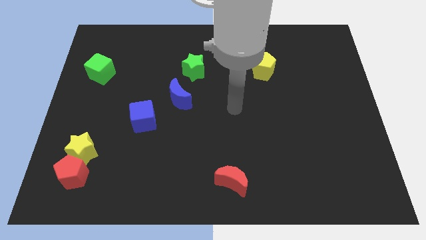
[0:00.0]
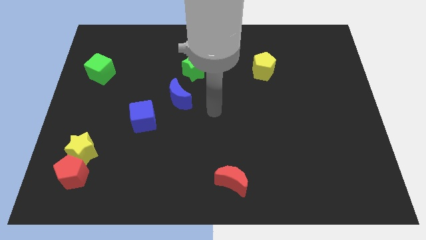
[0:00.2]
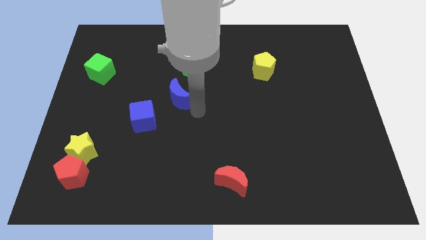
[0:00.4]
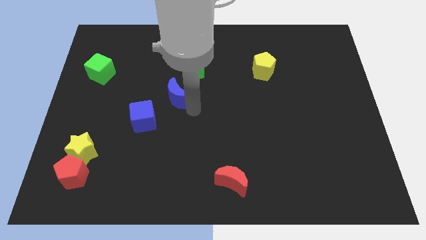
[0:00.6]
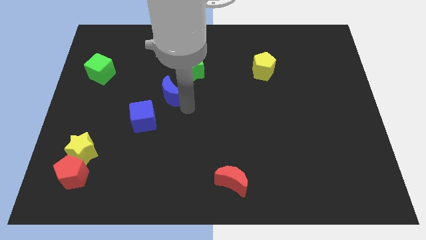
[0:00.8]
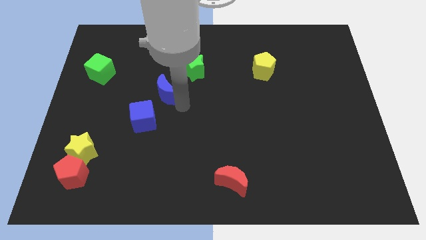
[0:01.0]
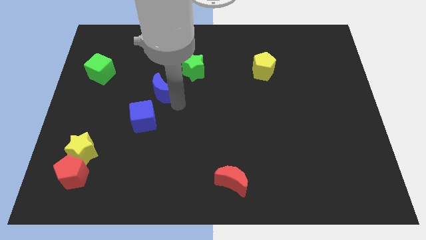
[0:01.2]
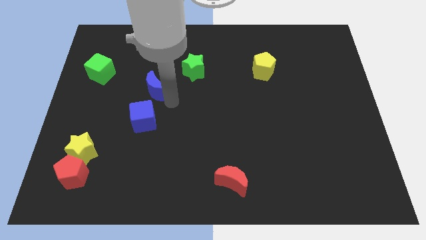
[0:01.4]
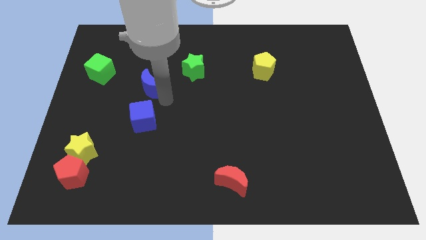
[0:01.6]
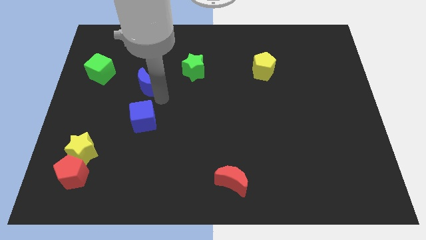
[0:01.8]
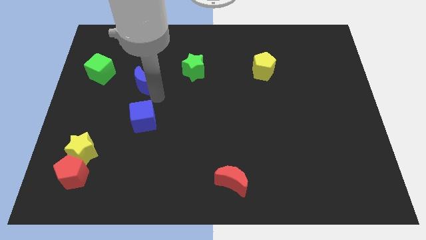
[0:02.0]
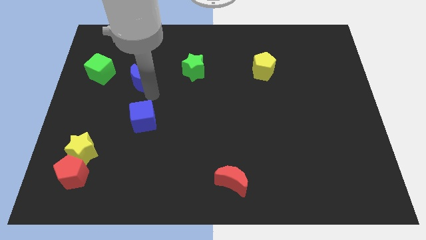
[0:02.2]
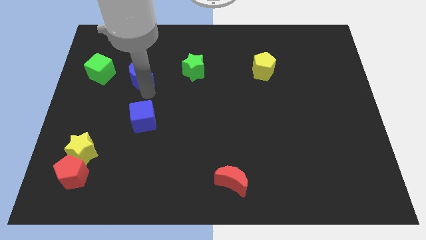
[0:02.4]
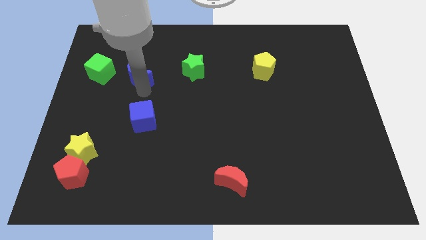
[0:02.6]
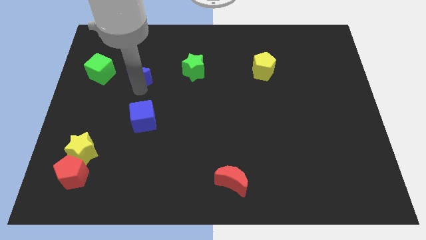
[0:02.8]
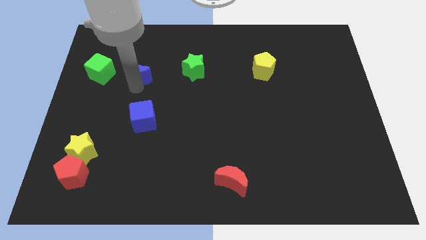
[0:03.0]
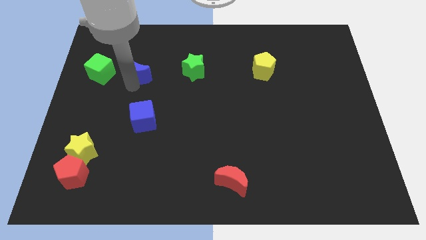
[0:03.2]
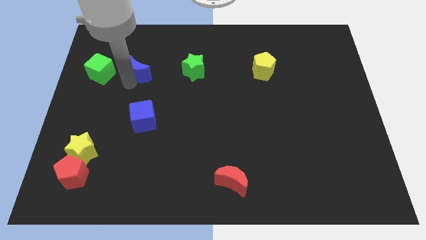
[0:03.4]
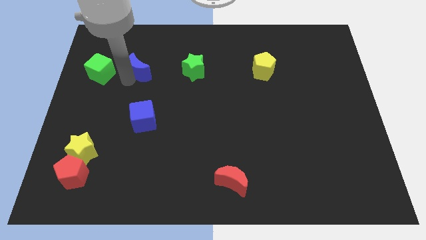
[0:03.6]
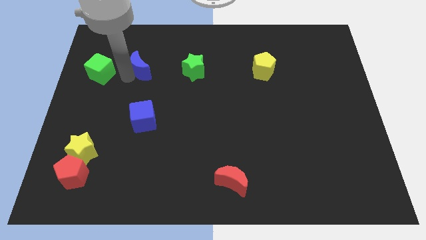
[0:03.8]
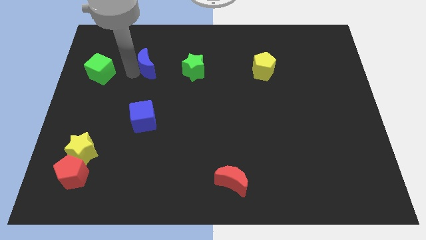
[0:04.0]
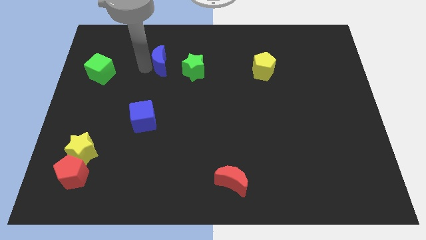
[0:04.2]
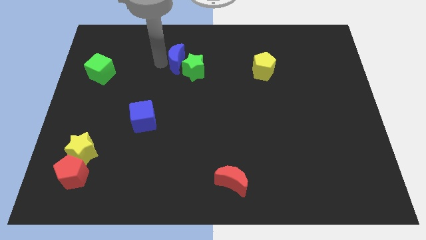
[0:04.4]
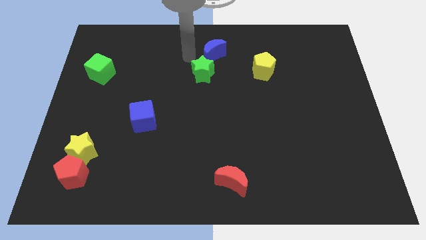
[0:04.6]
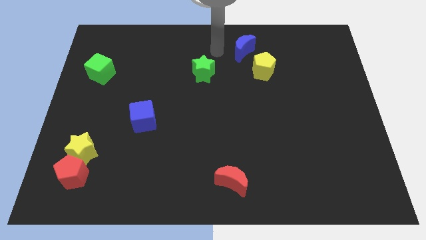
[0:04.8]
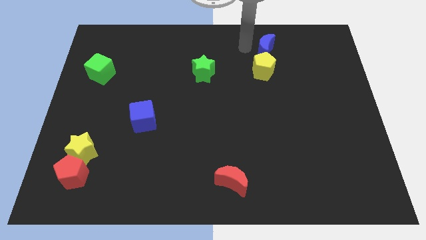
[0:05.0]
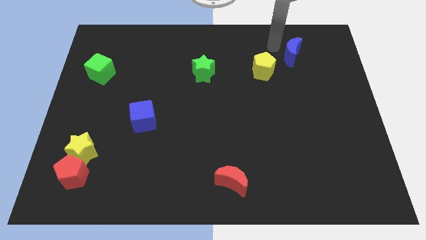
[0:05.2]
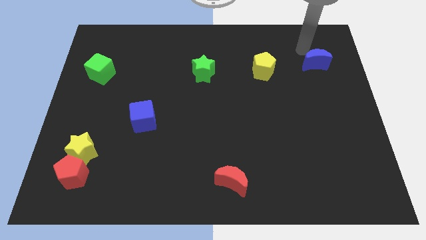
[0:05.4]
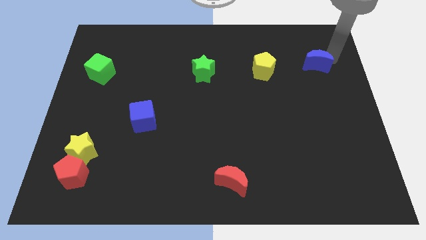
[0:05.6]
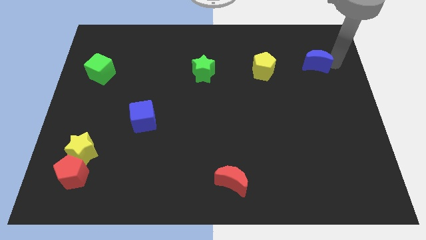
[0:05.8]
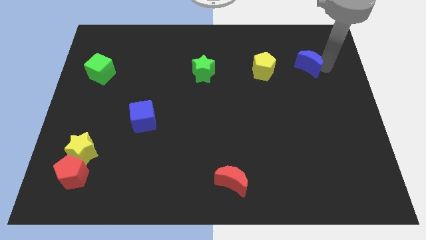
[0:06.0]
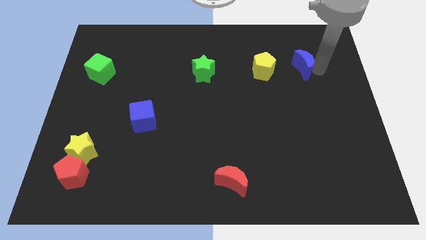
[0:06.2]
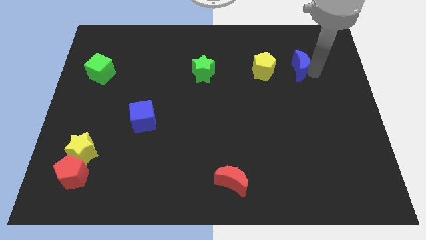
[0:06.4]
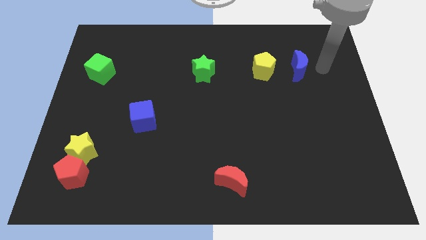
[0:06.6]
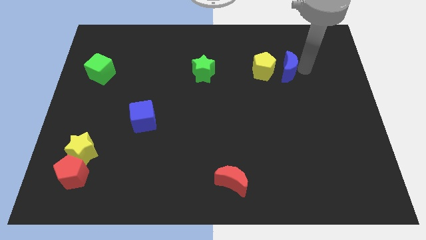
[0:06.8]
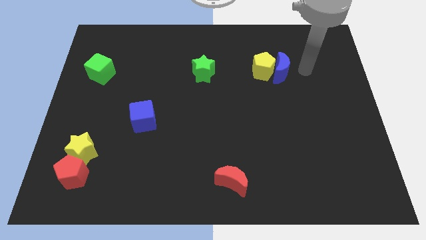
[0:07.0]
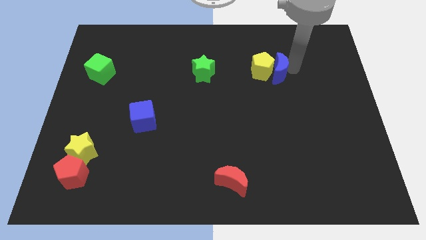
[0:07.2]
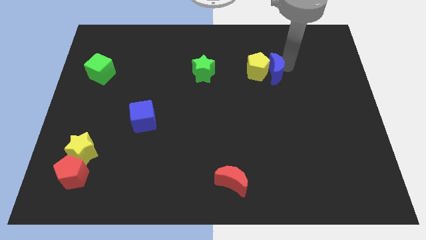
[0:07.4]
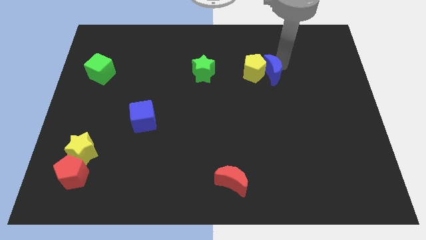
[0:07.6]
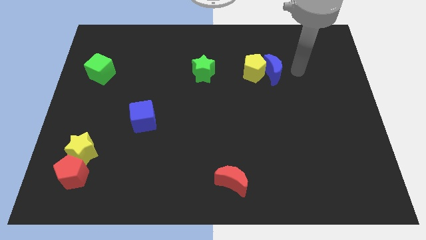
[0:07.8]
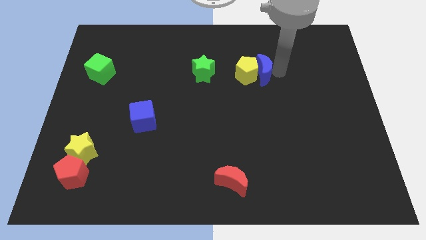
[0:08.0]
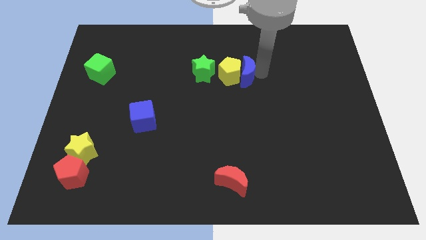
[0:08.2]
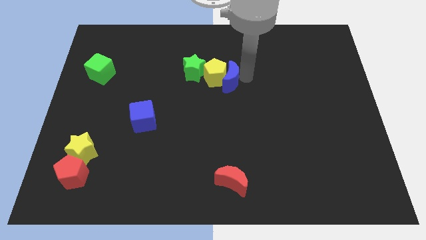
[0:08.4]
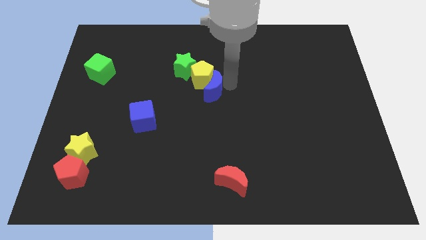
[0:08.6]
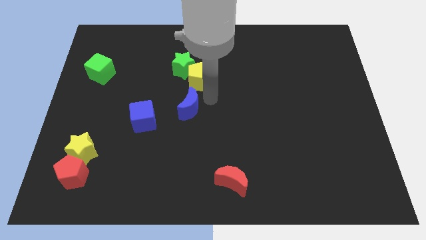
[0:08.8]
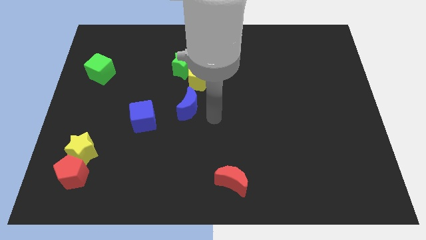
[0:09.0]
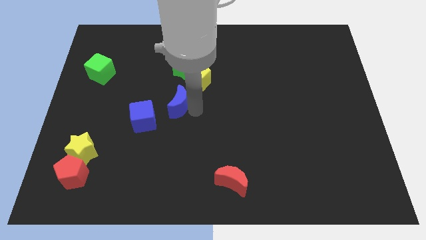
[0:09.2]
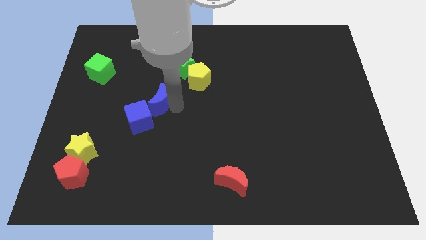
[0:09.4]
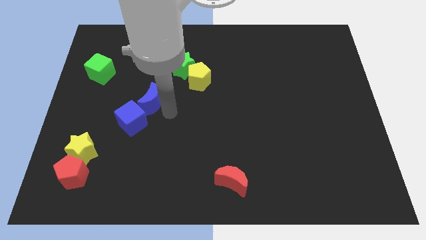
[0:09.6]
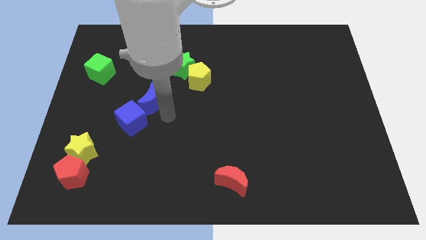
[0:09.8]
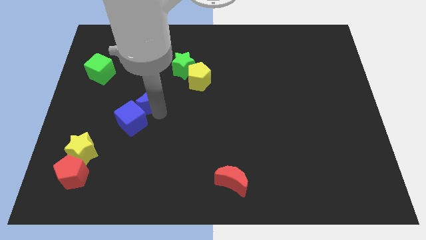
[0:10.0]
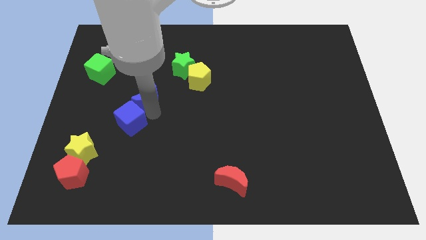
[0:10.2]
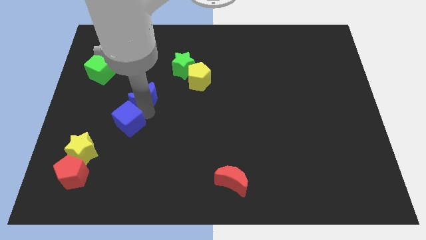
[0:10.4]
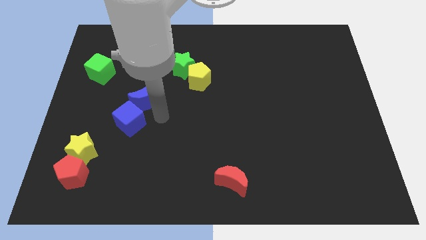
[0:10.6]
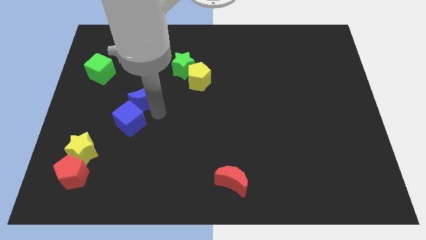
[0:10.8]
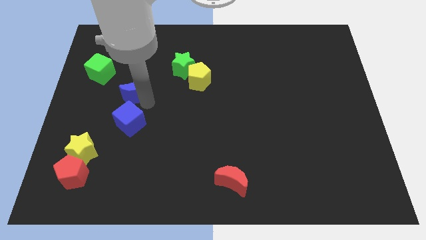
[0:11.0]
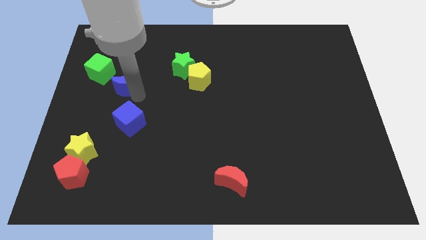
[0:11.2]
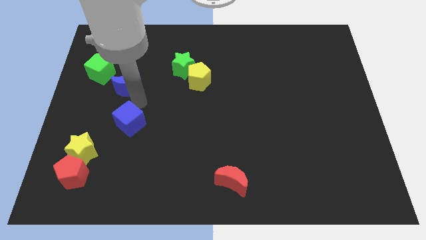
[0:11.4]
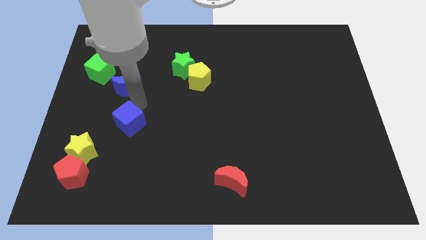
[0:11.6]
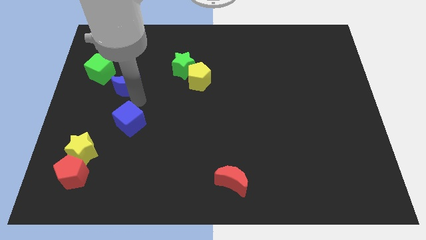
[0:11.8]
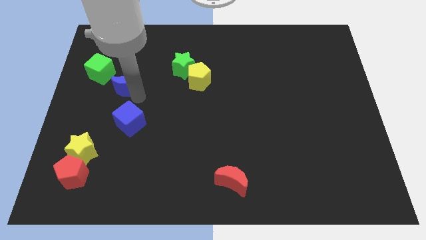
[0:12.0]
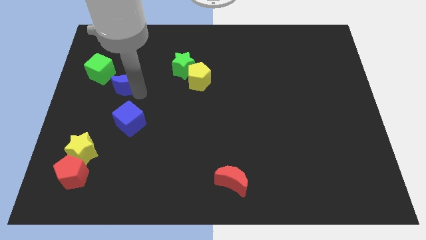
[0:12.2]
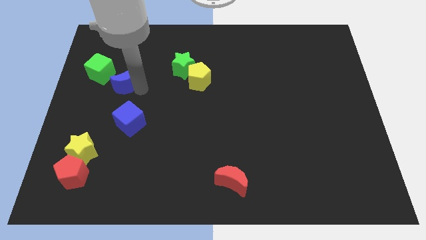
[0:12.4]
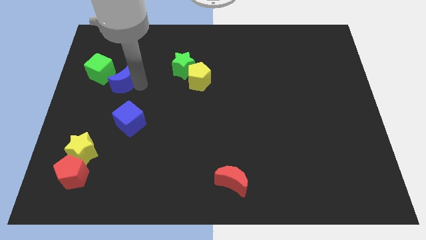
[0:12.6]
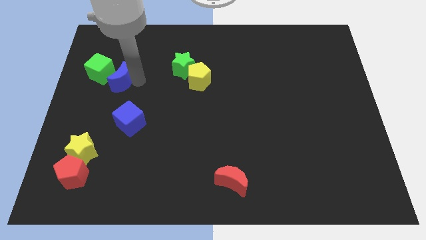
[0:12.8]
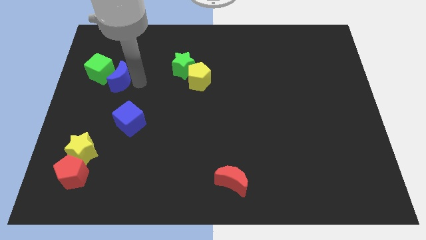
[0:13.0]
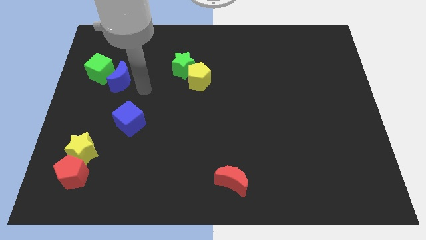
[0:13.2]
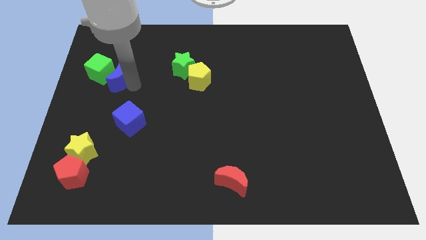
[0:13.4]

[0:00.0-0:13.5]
push the blue moon towards the green cube

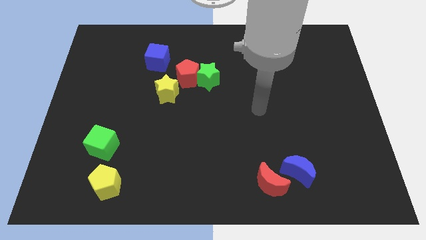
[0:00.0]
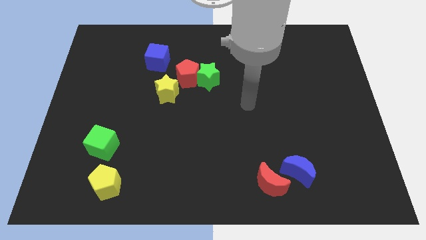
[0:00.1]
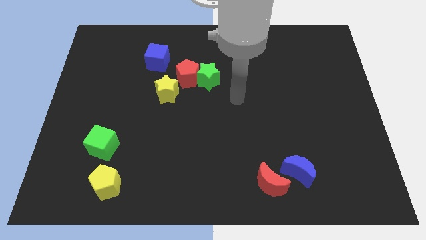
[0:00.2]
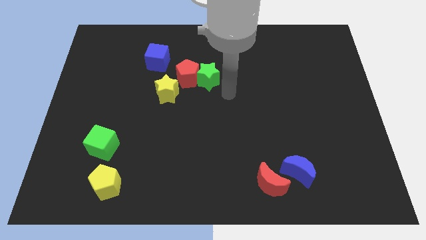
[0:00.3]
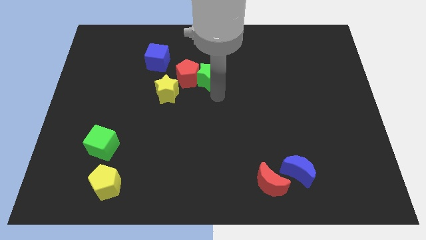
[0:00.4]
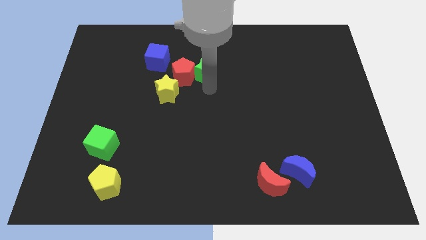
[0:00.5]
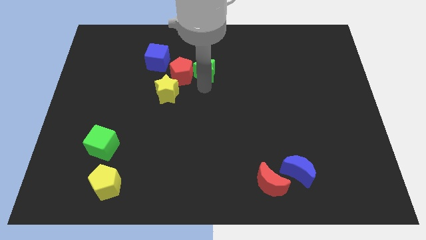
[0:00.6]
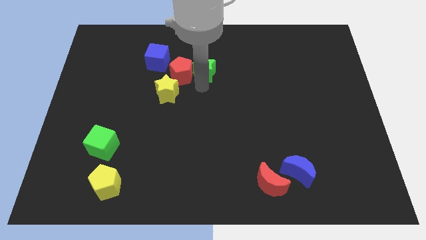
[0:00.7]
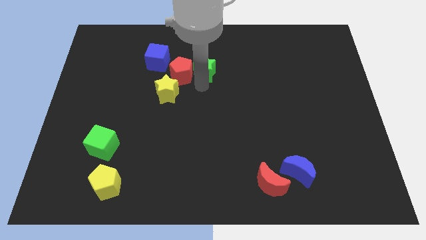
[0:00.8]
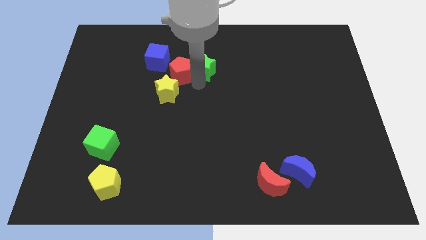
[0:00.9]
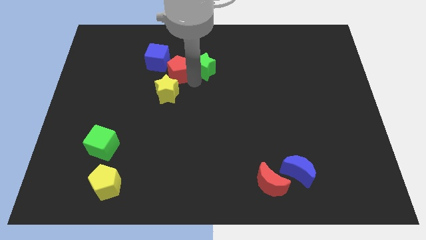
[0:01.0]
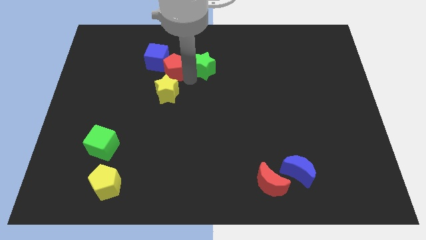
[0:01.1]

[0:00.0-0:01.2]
slide the red pentagon close to the blue cube
